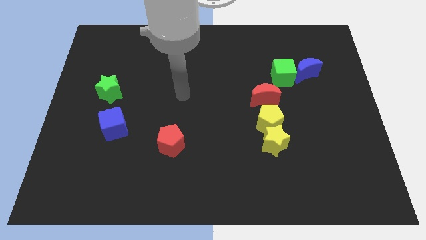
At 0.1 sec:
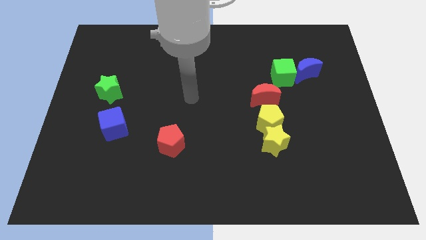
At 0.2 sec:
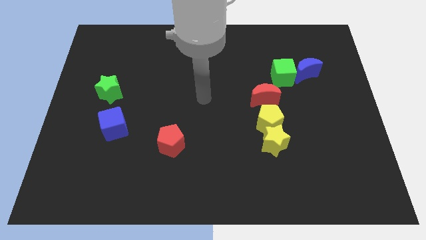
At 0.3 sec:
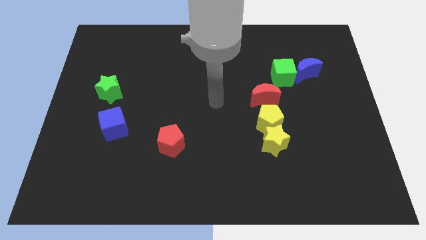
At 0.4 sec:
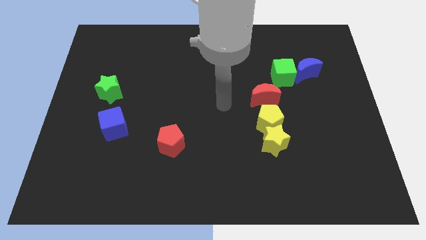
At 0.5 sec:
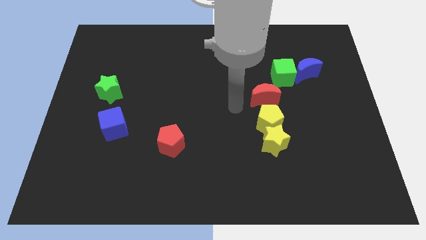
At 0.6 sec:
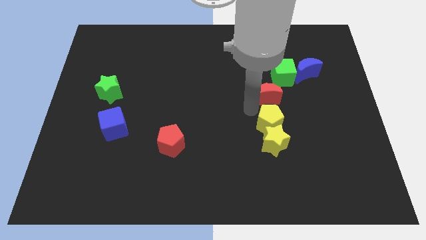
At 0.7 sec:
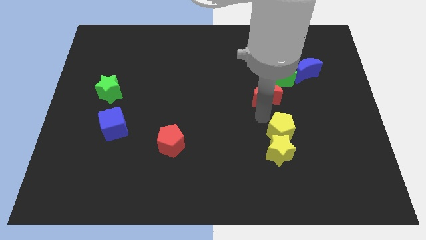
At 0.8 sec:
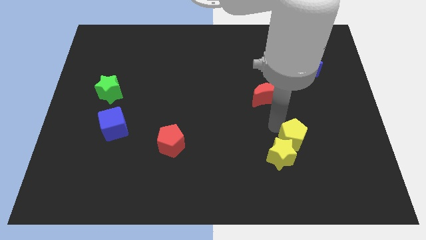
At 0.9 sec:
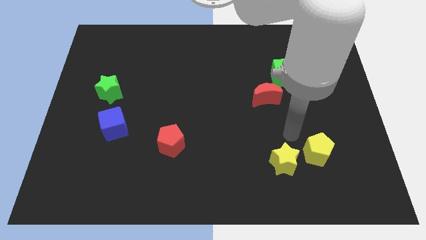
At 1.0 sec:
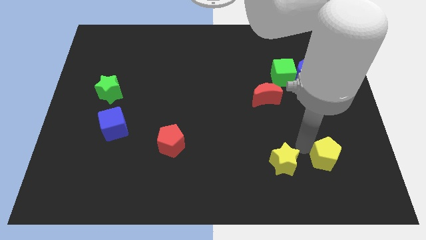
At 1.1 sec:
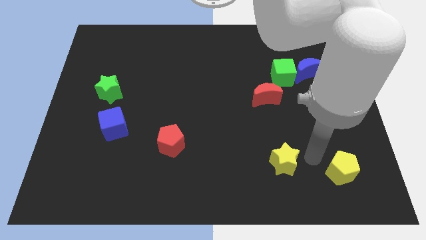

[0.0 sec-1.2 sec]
pull the yellow star apart from the yellow pentagon

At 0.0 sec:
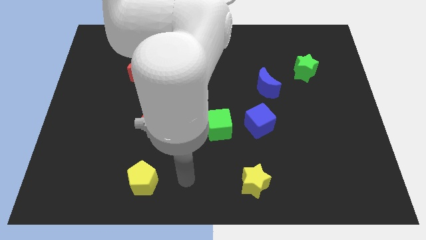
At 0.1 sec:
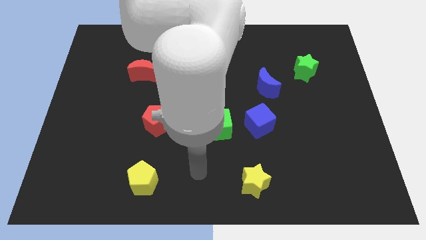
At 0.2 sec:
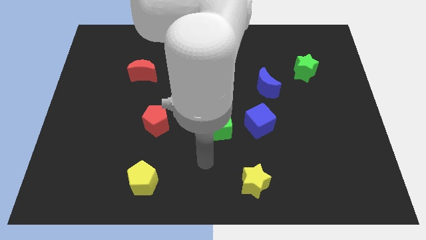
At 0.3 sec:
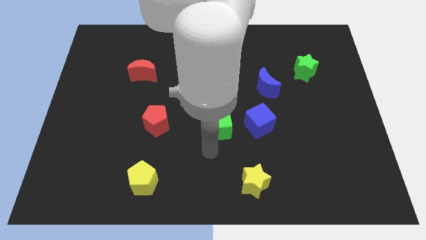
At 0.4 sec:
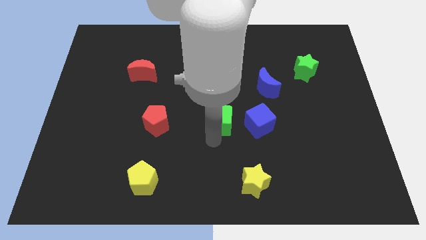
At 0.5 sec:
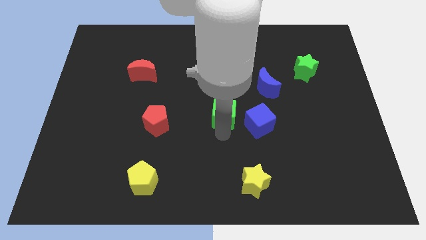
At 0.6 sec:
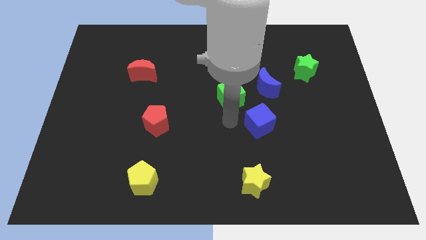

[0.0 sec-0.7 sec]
pull the blue cube apart from the green cube

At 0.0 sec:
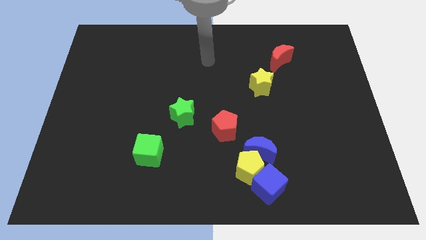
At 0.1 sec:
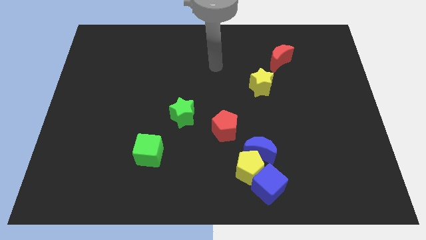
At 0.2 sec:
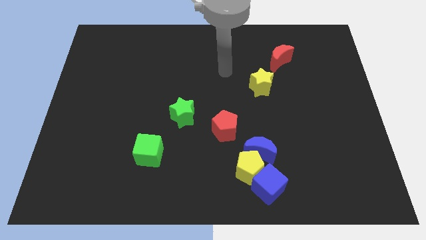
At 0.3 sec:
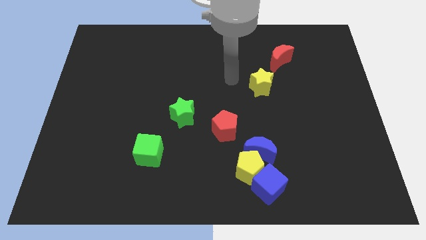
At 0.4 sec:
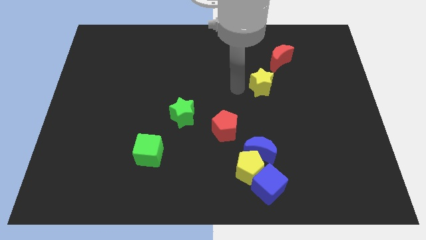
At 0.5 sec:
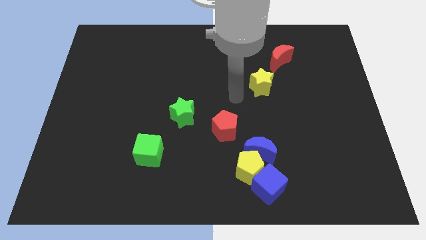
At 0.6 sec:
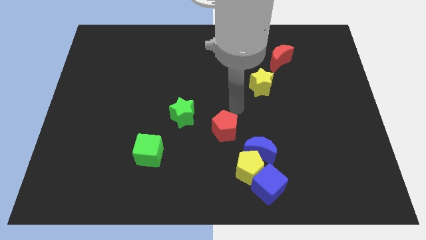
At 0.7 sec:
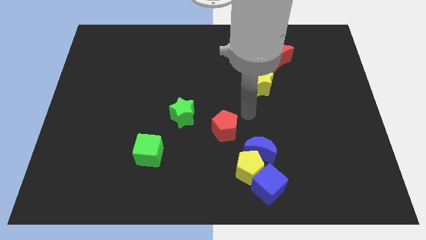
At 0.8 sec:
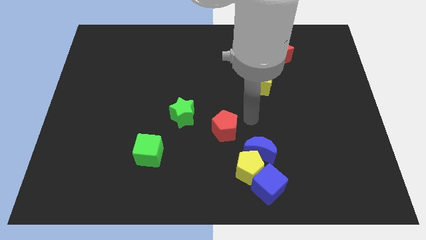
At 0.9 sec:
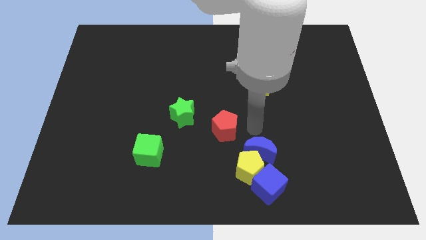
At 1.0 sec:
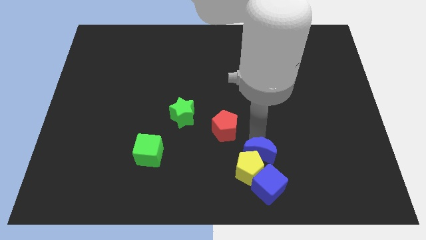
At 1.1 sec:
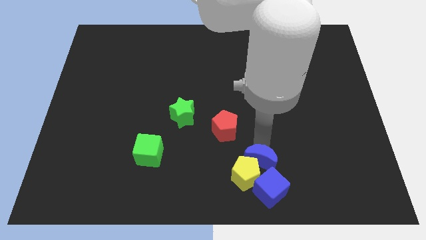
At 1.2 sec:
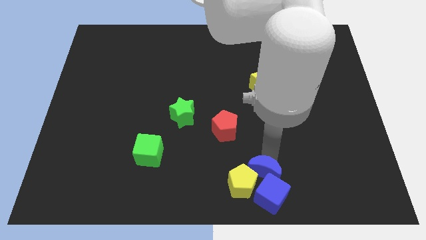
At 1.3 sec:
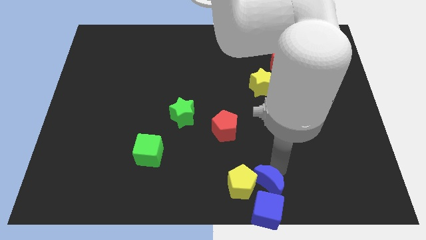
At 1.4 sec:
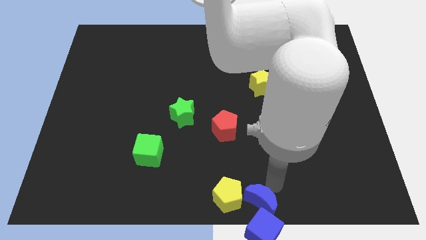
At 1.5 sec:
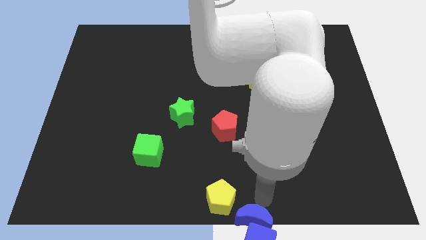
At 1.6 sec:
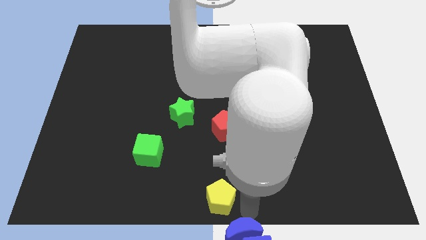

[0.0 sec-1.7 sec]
pull the yellow pentagon apart from the blue moon and blue cube

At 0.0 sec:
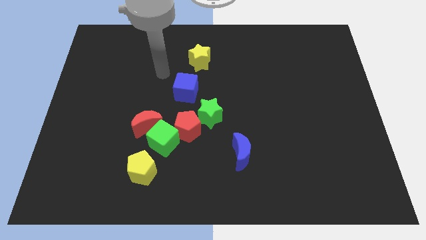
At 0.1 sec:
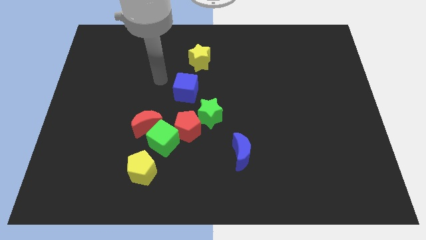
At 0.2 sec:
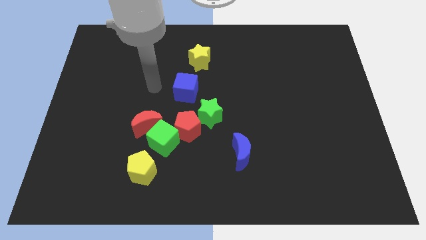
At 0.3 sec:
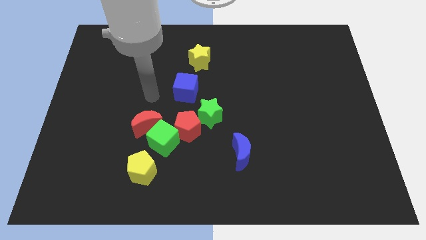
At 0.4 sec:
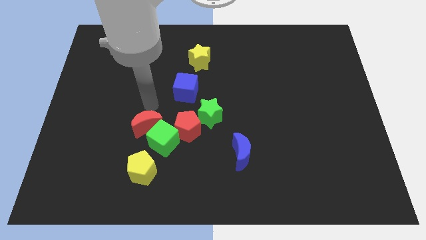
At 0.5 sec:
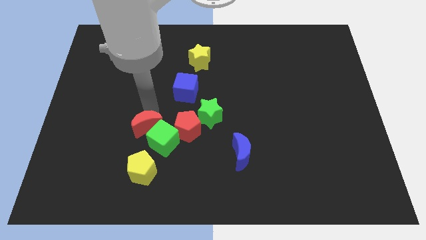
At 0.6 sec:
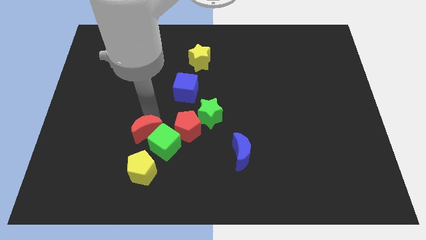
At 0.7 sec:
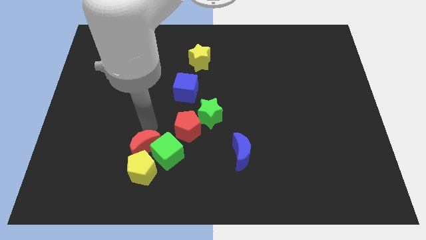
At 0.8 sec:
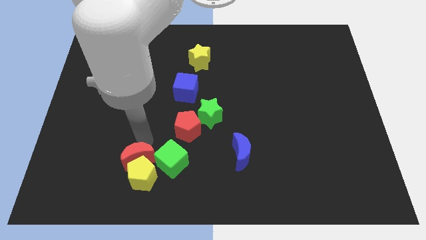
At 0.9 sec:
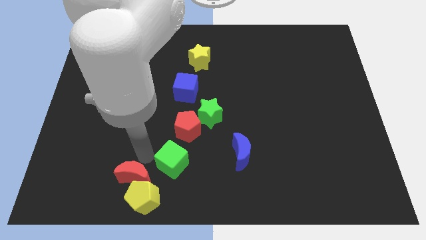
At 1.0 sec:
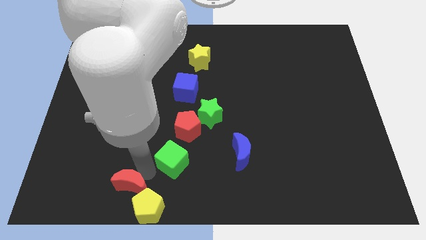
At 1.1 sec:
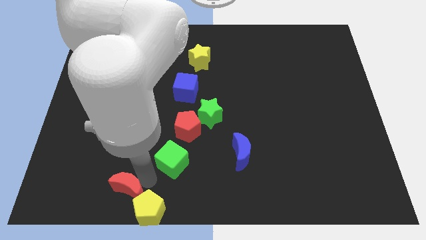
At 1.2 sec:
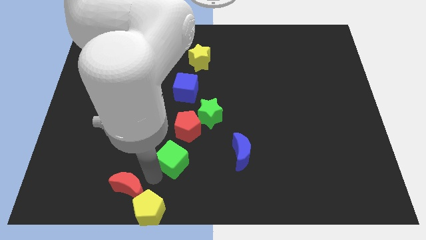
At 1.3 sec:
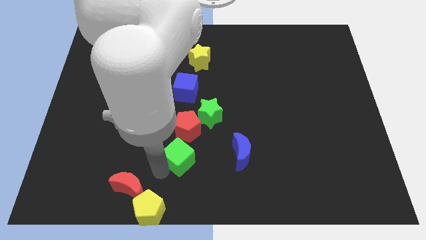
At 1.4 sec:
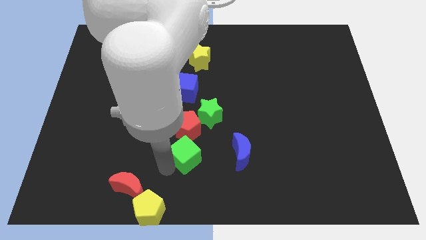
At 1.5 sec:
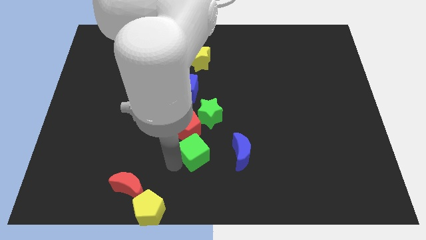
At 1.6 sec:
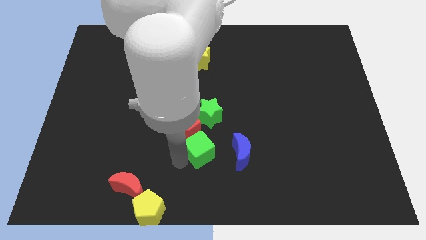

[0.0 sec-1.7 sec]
separate the green cube from the group

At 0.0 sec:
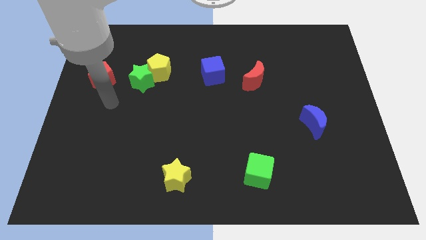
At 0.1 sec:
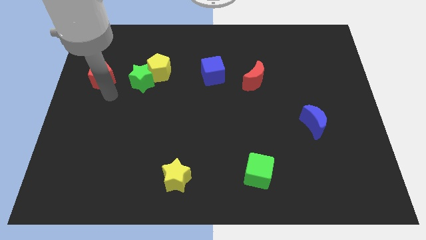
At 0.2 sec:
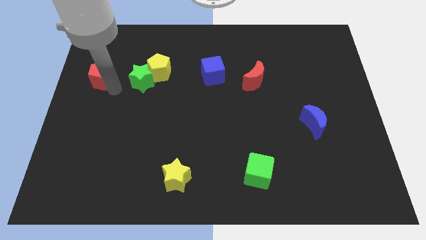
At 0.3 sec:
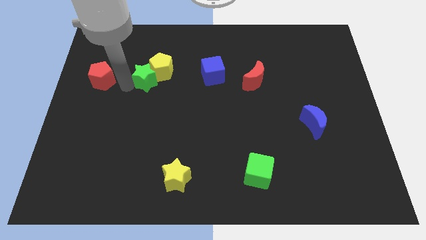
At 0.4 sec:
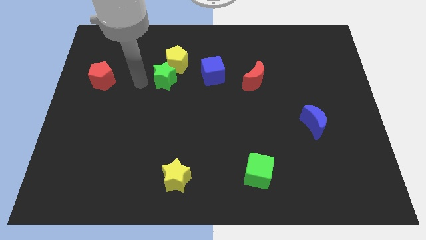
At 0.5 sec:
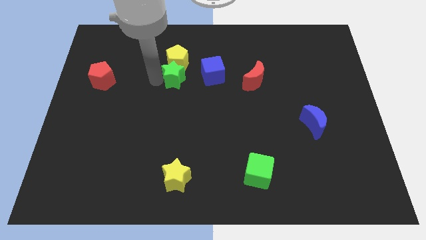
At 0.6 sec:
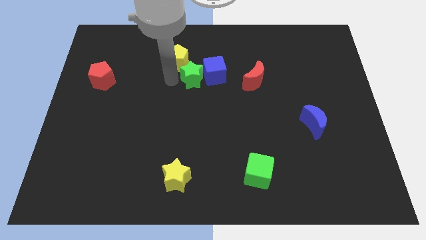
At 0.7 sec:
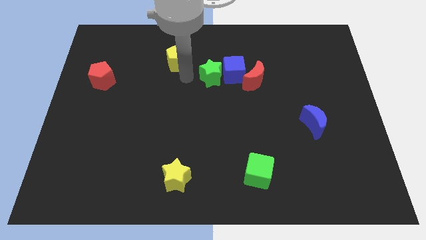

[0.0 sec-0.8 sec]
pull the yellow pentagon apart from the green star

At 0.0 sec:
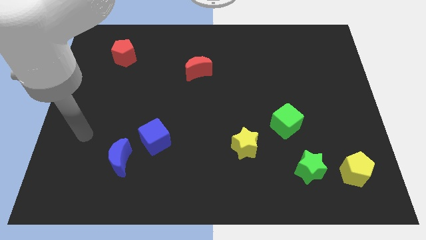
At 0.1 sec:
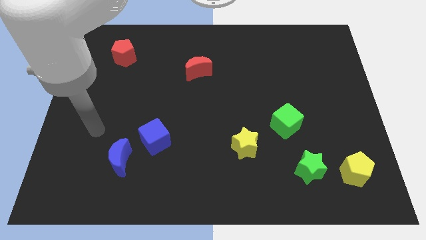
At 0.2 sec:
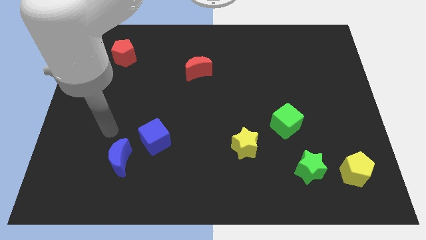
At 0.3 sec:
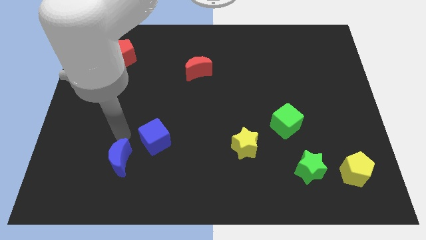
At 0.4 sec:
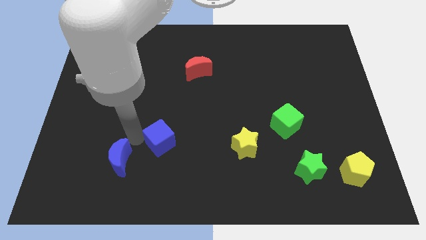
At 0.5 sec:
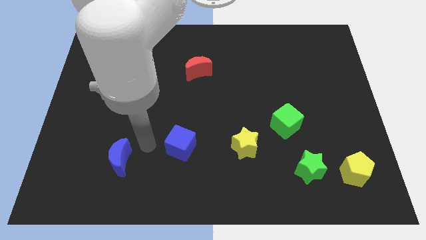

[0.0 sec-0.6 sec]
move the blue moon away from the blue cube

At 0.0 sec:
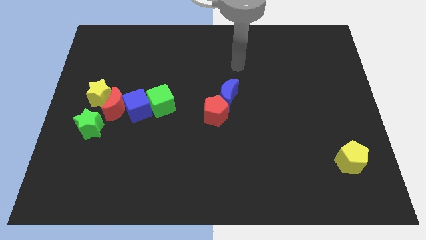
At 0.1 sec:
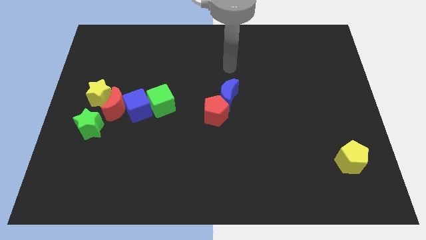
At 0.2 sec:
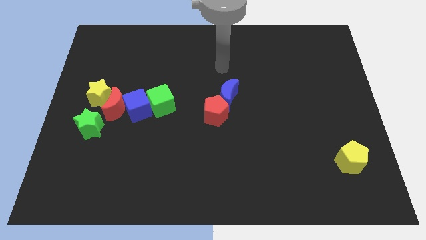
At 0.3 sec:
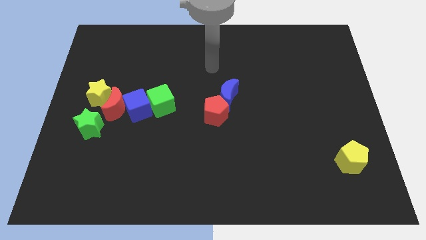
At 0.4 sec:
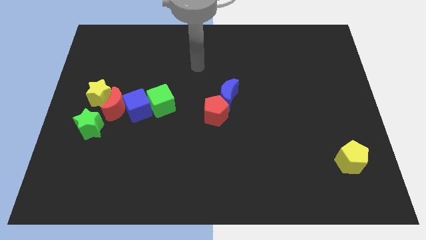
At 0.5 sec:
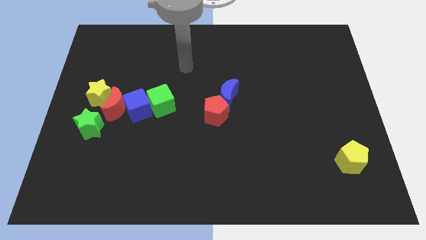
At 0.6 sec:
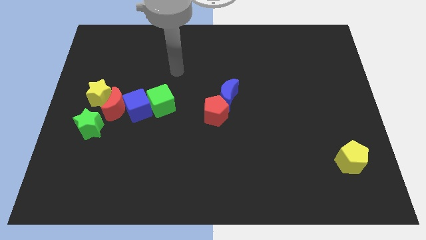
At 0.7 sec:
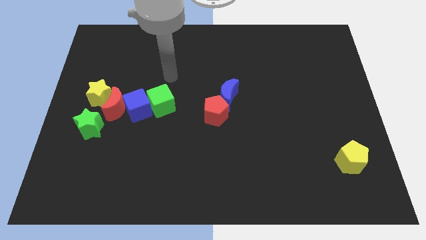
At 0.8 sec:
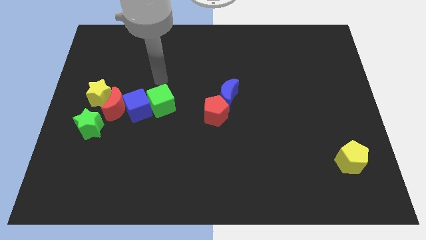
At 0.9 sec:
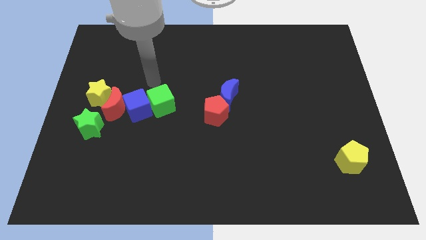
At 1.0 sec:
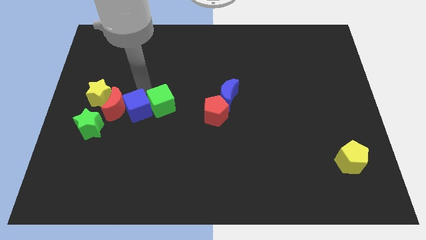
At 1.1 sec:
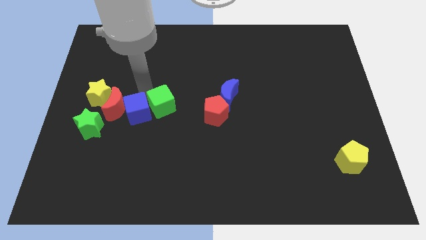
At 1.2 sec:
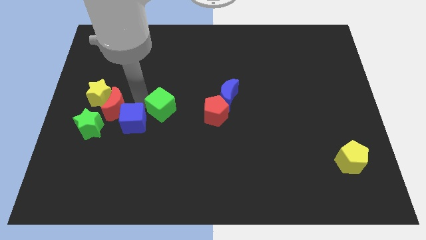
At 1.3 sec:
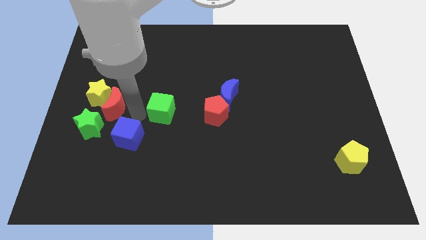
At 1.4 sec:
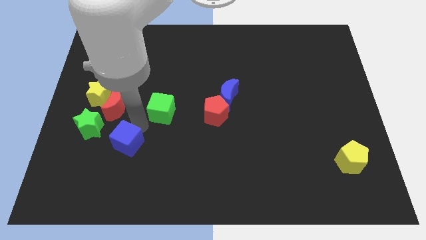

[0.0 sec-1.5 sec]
move the green cube away from the blue cube

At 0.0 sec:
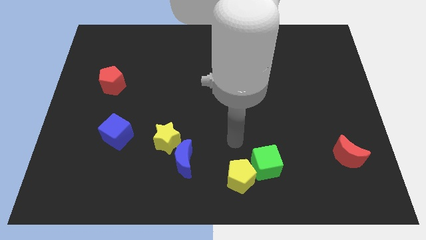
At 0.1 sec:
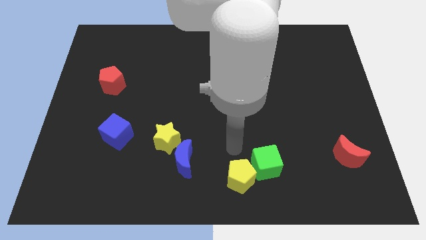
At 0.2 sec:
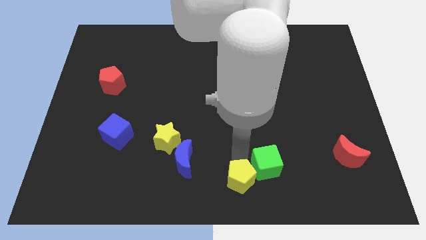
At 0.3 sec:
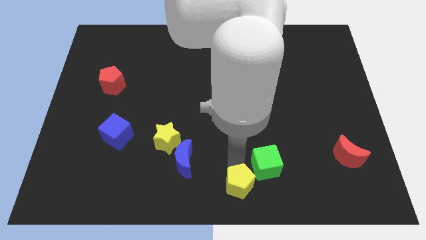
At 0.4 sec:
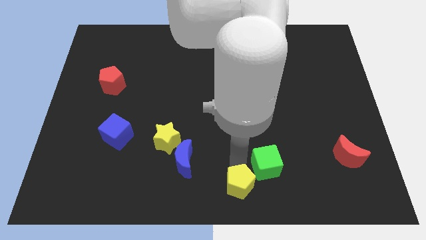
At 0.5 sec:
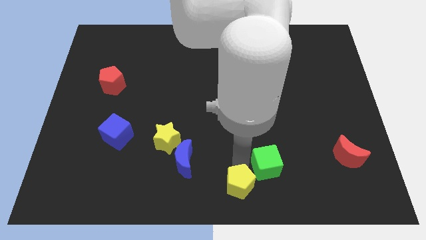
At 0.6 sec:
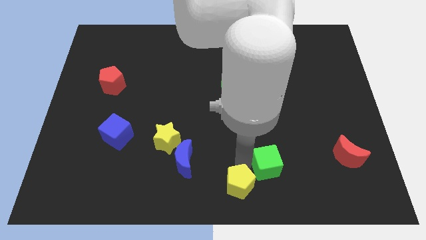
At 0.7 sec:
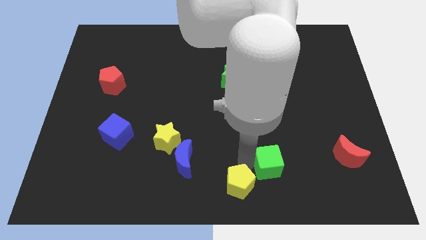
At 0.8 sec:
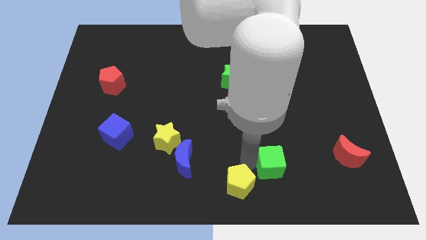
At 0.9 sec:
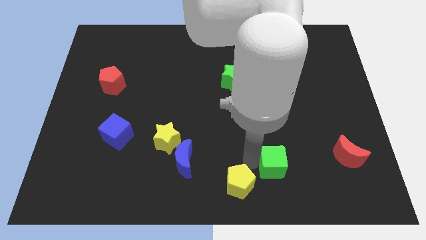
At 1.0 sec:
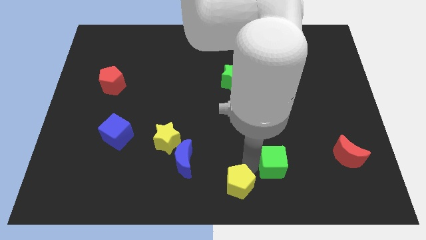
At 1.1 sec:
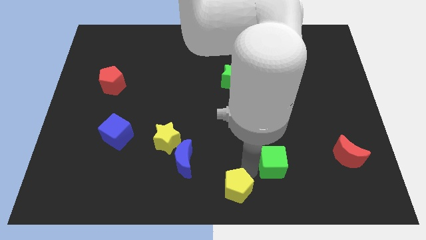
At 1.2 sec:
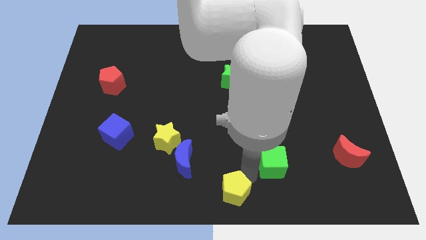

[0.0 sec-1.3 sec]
separate the green cube from the yellow pentagon
